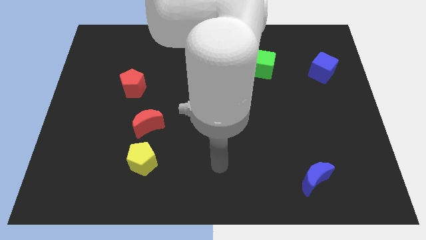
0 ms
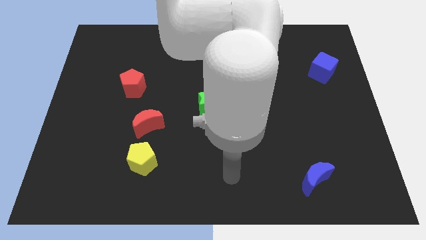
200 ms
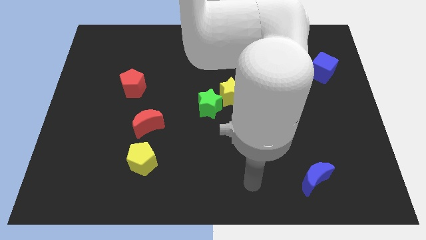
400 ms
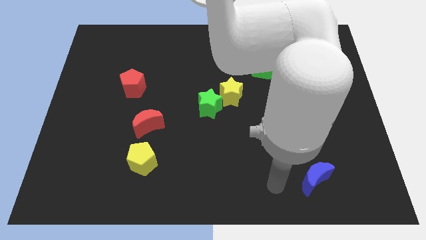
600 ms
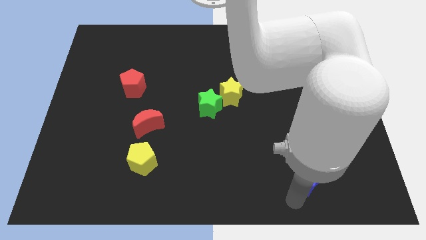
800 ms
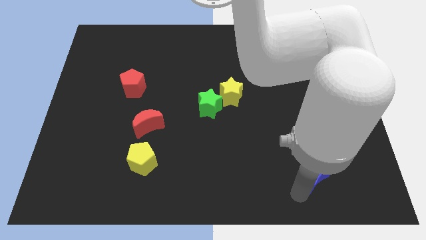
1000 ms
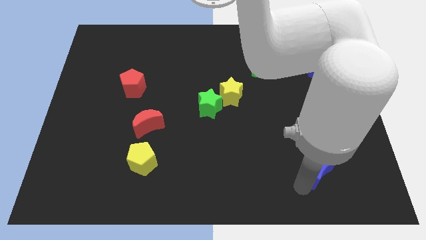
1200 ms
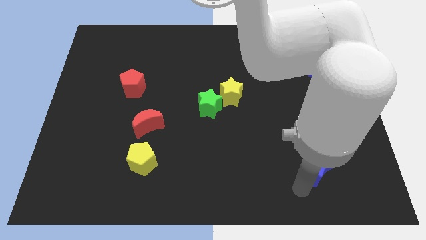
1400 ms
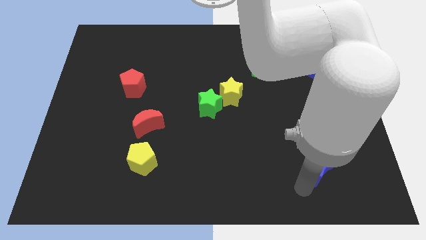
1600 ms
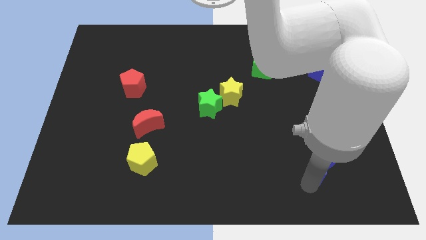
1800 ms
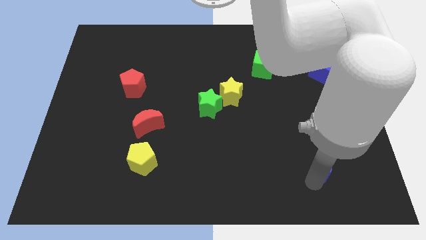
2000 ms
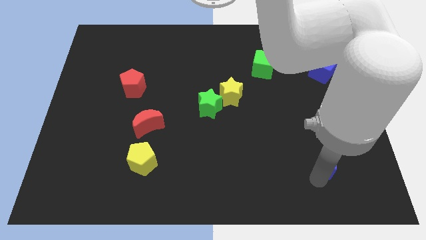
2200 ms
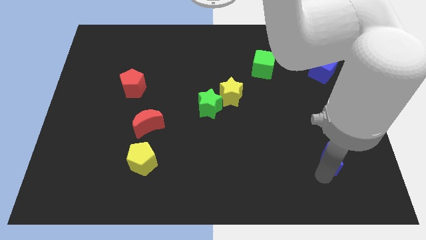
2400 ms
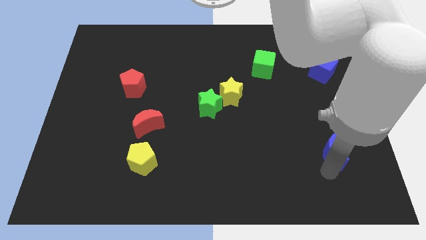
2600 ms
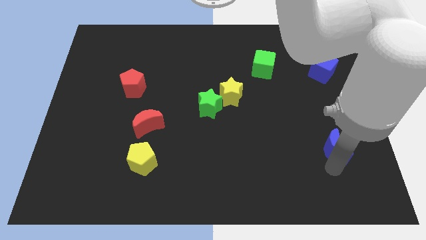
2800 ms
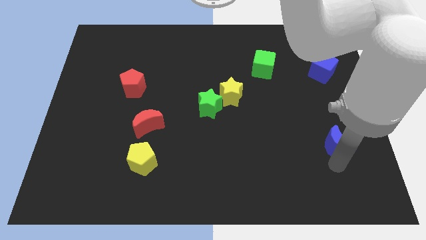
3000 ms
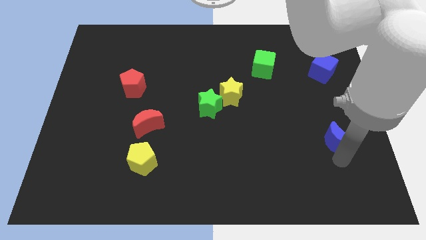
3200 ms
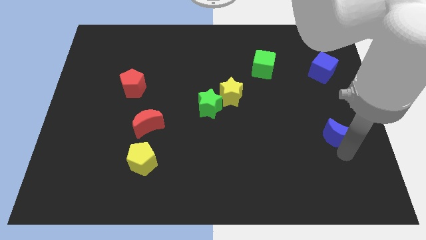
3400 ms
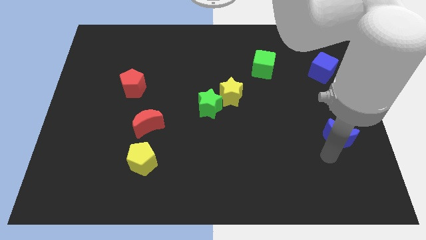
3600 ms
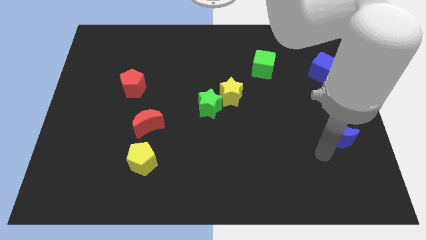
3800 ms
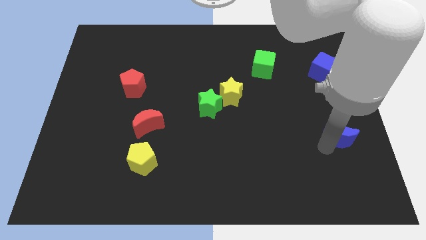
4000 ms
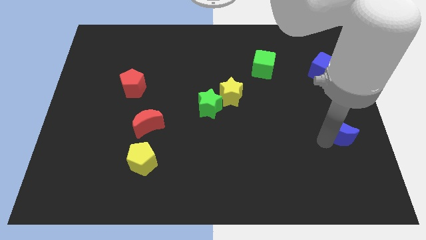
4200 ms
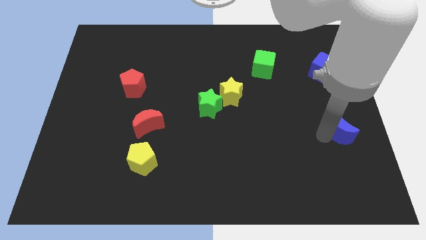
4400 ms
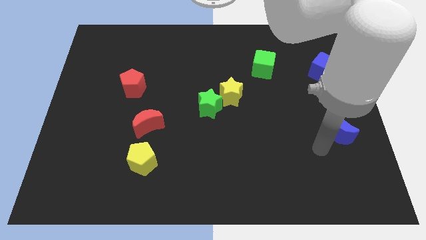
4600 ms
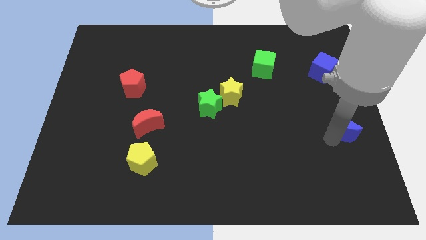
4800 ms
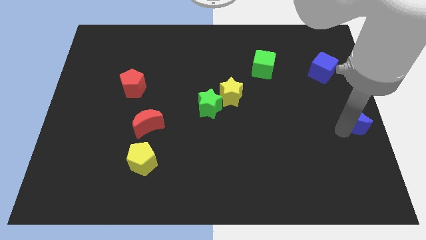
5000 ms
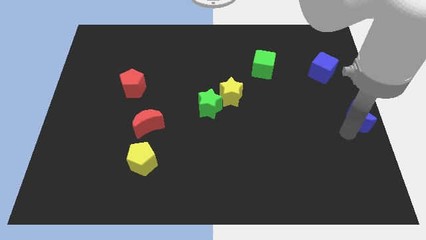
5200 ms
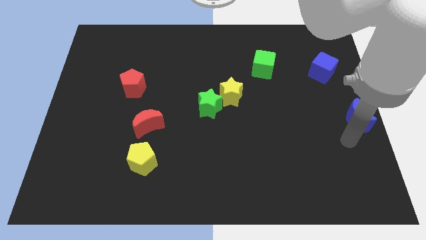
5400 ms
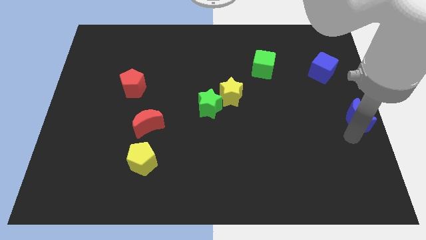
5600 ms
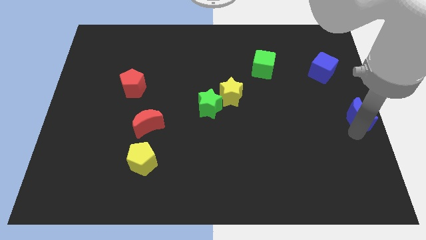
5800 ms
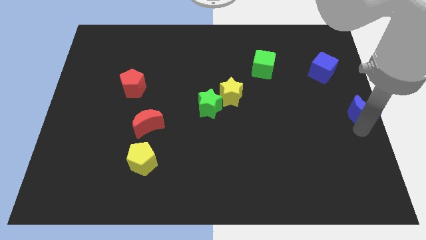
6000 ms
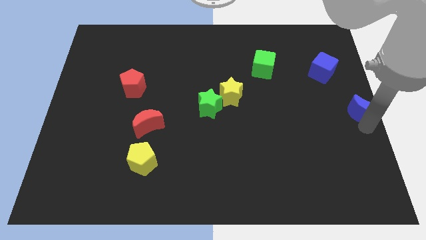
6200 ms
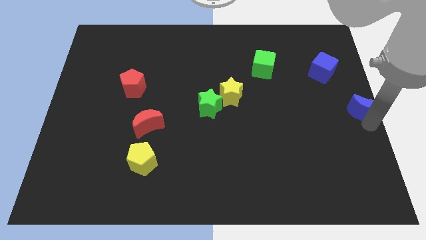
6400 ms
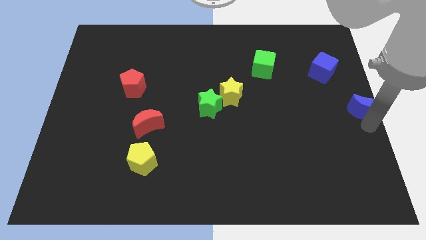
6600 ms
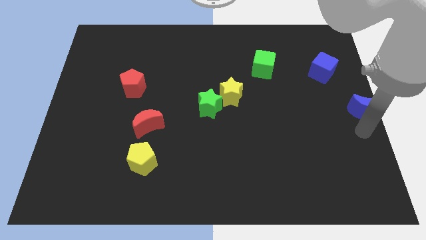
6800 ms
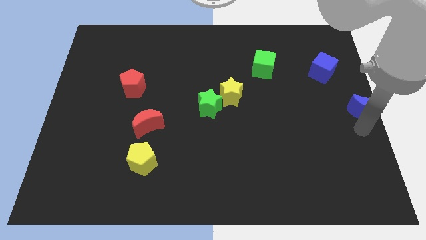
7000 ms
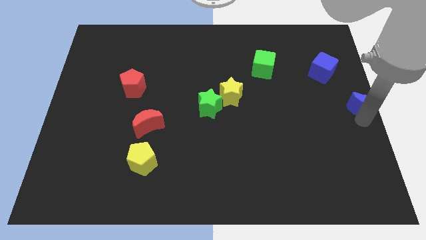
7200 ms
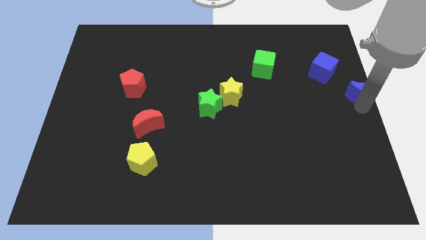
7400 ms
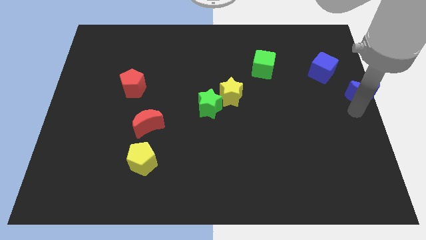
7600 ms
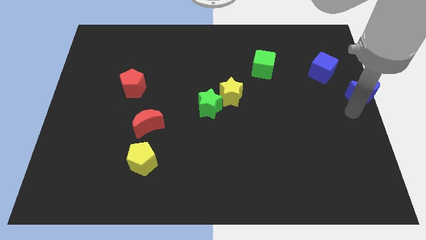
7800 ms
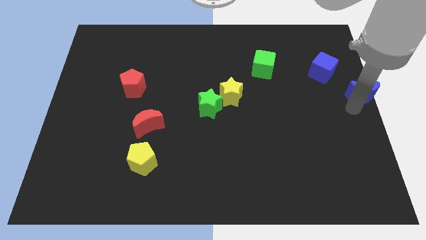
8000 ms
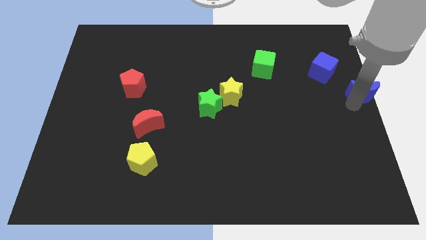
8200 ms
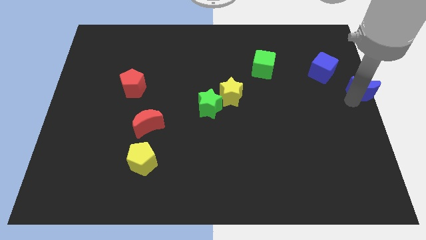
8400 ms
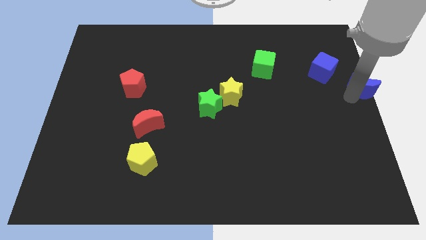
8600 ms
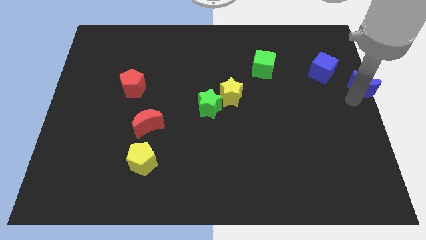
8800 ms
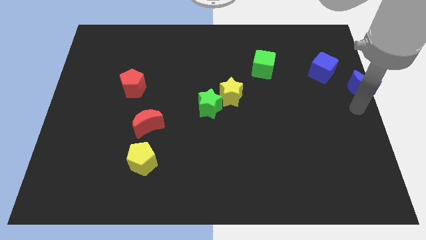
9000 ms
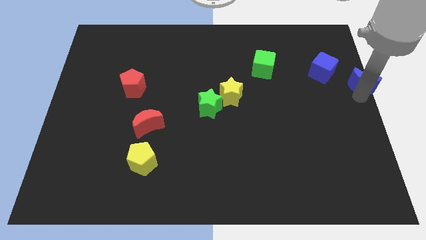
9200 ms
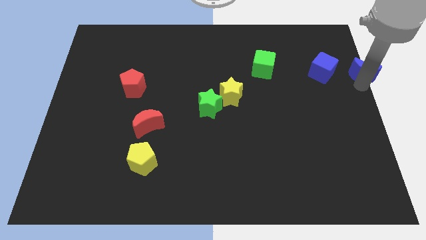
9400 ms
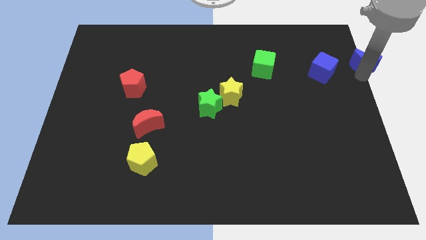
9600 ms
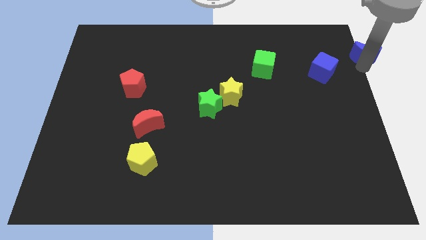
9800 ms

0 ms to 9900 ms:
slide the blue moon to the upper right corner

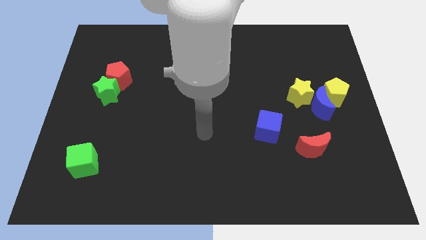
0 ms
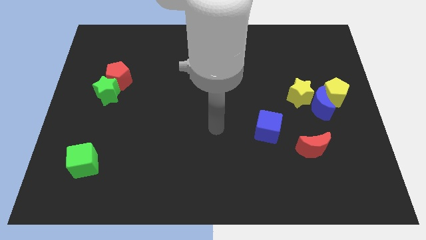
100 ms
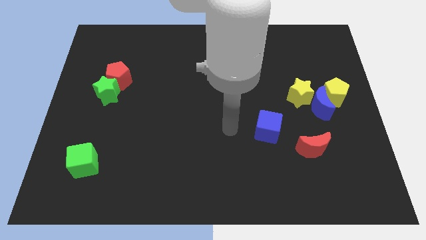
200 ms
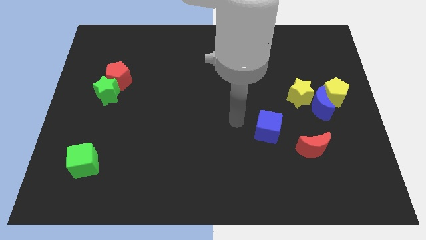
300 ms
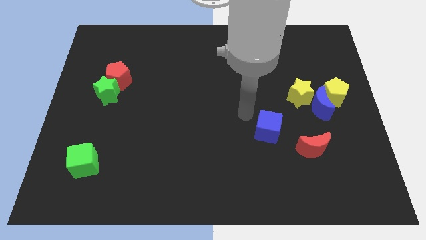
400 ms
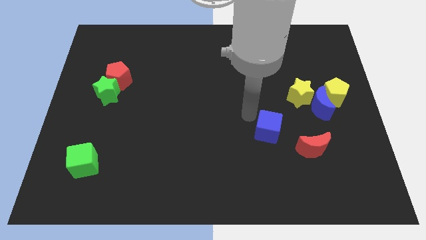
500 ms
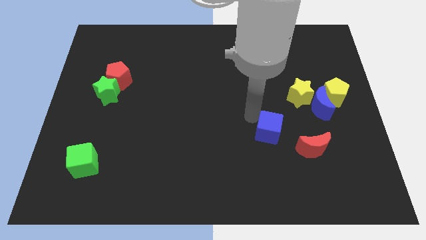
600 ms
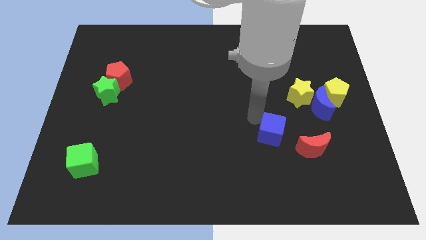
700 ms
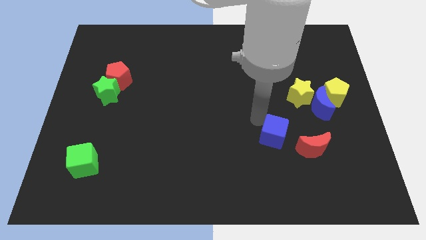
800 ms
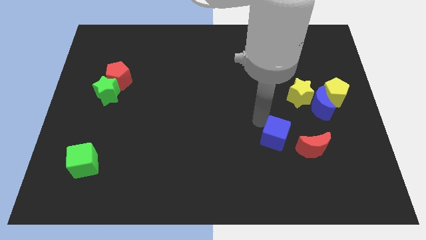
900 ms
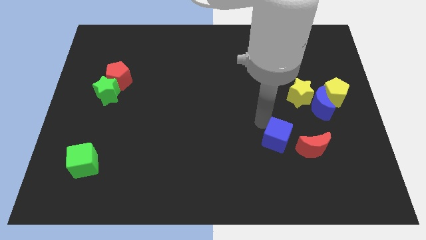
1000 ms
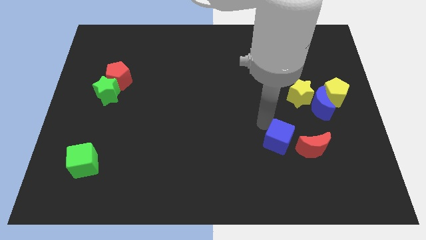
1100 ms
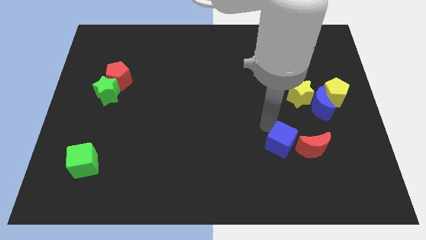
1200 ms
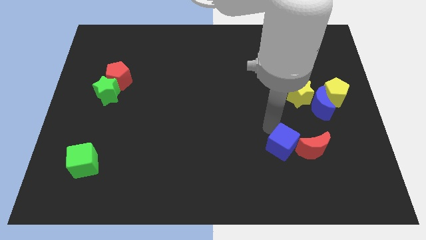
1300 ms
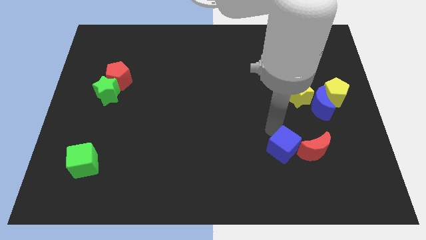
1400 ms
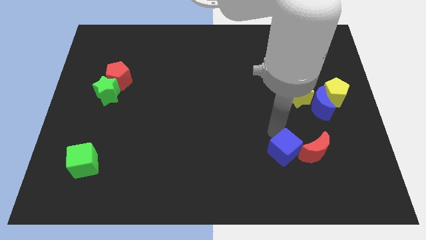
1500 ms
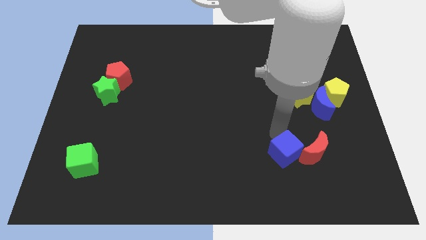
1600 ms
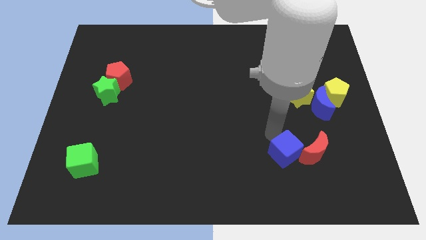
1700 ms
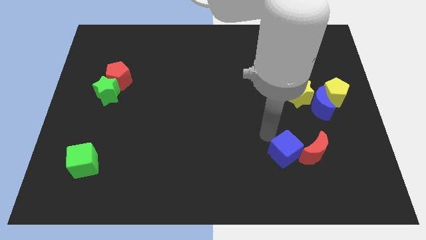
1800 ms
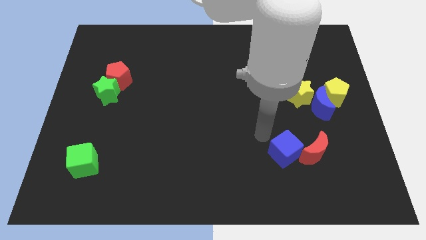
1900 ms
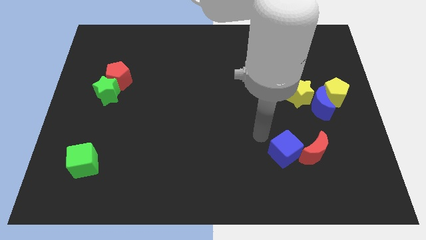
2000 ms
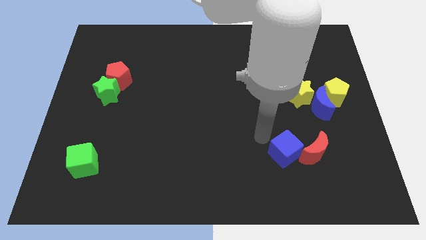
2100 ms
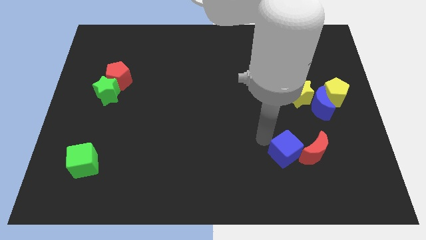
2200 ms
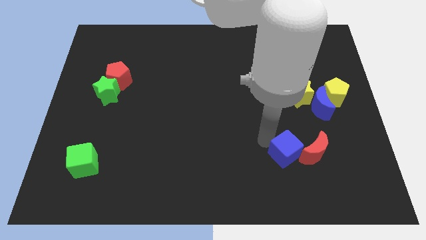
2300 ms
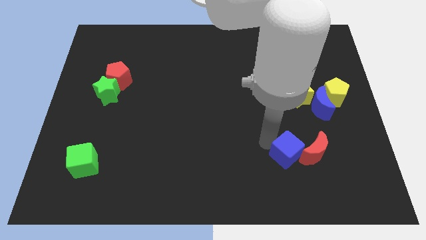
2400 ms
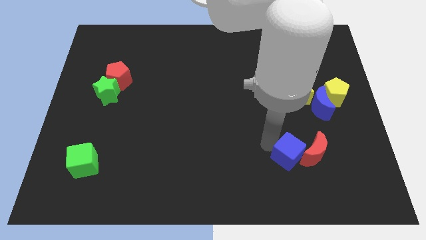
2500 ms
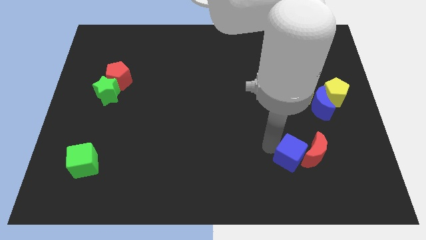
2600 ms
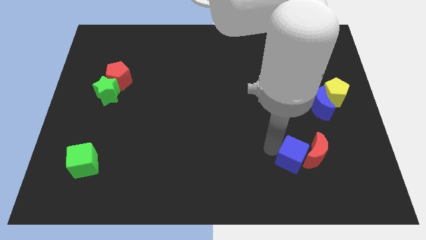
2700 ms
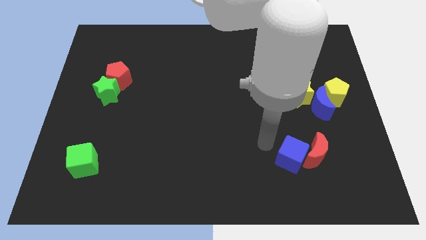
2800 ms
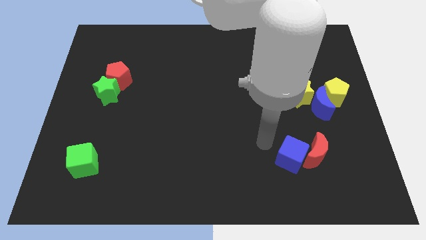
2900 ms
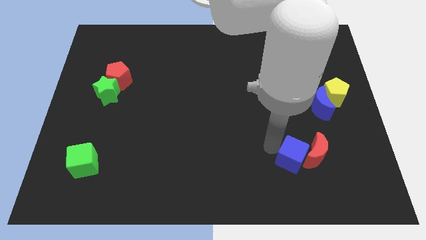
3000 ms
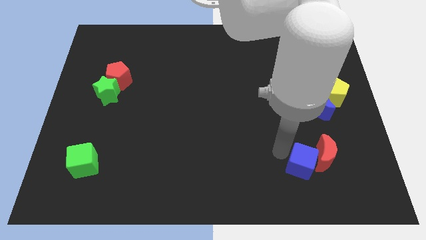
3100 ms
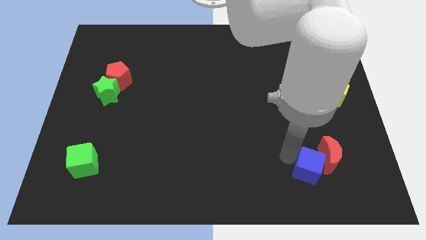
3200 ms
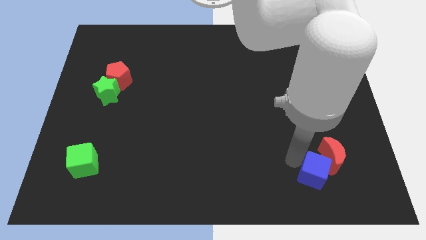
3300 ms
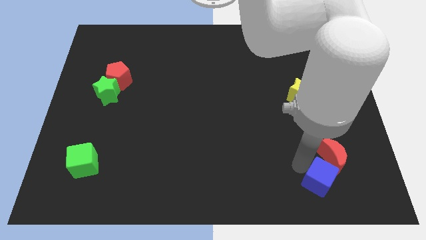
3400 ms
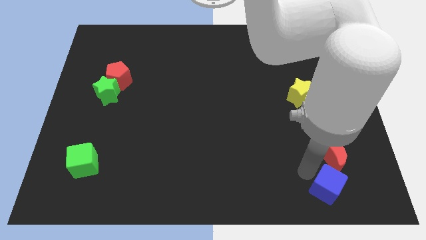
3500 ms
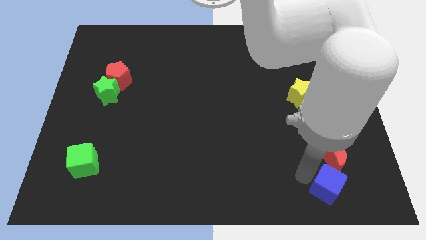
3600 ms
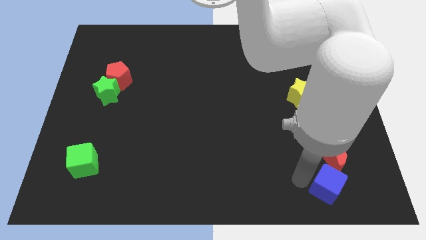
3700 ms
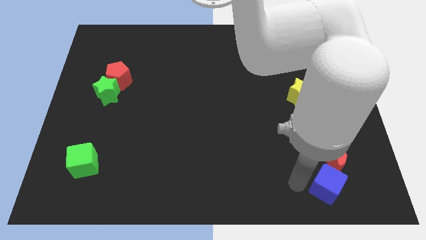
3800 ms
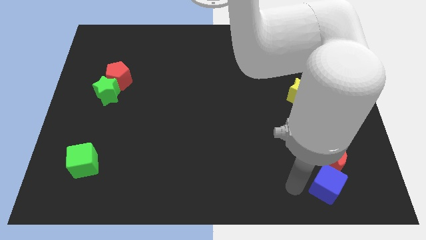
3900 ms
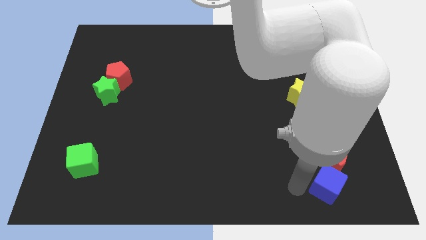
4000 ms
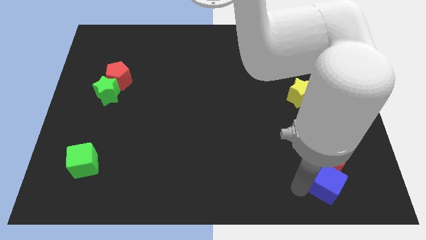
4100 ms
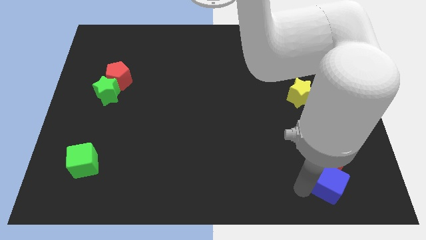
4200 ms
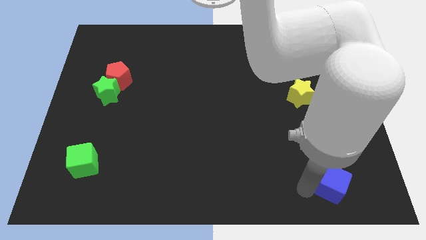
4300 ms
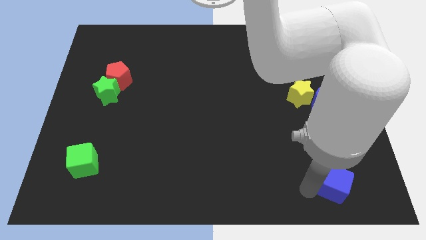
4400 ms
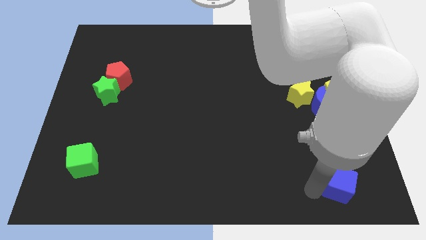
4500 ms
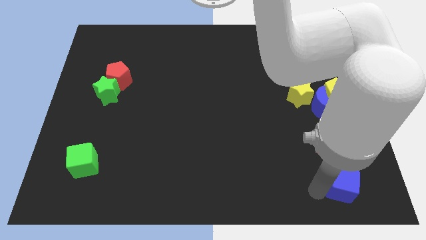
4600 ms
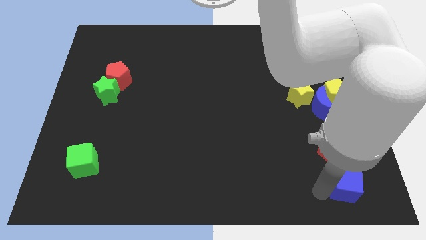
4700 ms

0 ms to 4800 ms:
put the blue cube to the bottom right of the board
